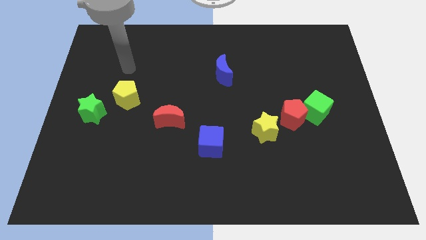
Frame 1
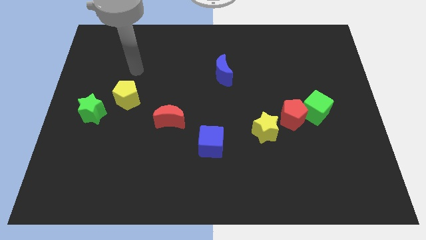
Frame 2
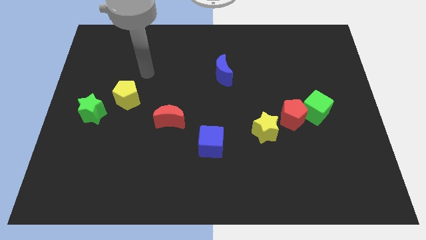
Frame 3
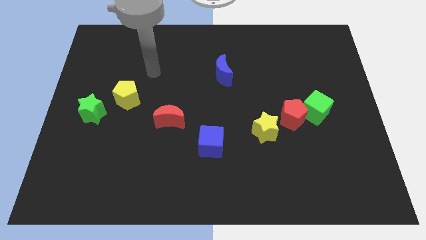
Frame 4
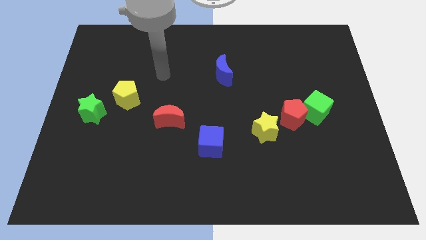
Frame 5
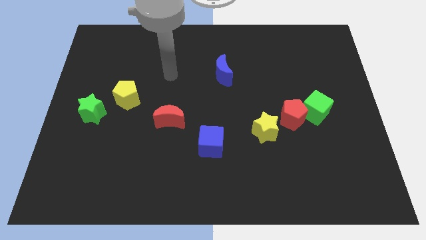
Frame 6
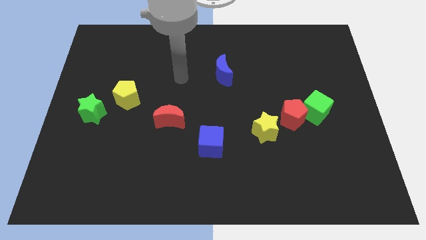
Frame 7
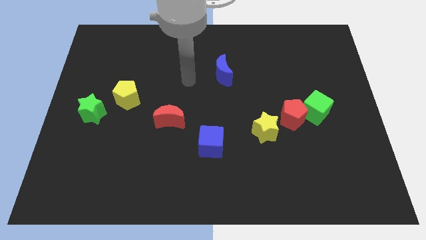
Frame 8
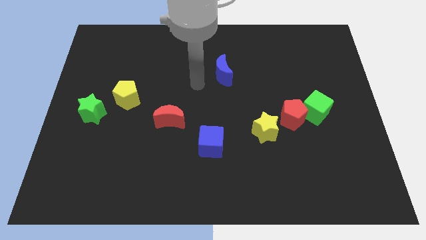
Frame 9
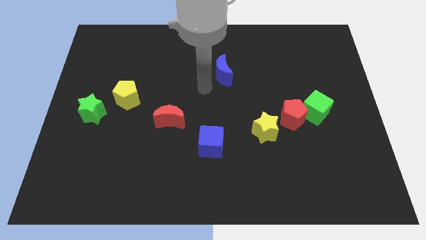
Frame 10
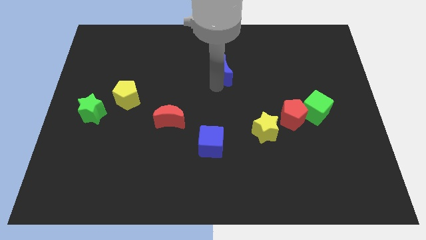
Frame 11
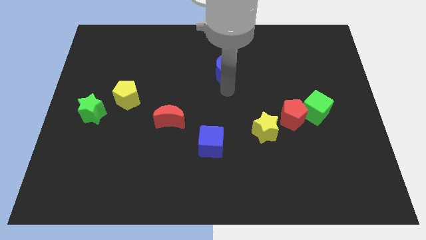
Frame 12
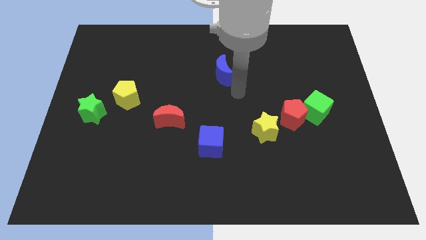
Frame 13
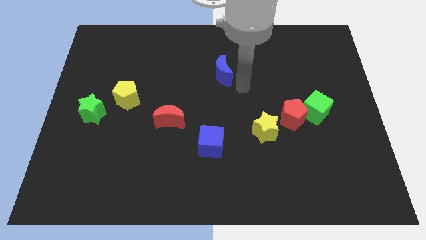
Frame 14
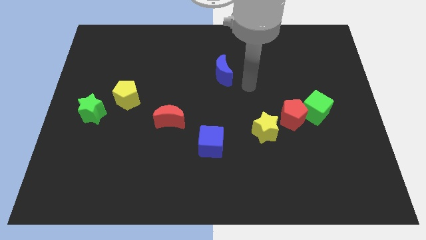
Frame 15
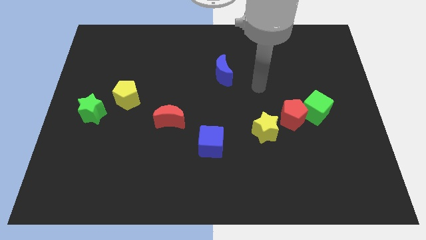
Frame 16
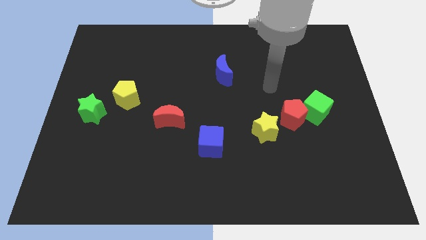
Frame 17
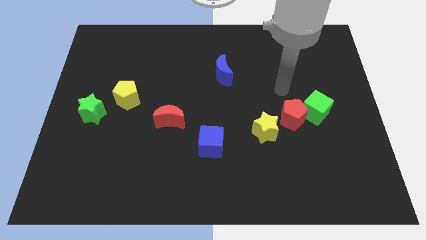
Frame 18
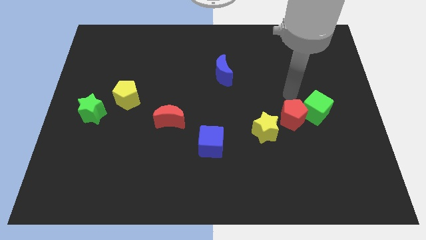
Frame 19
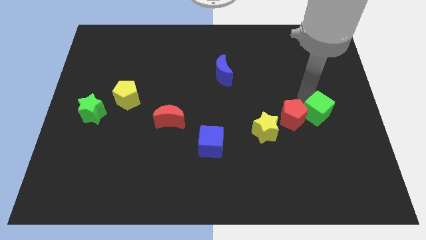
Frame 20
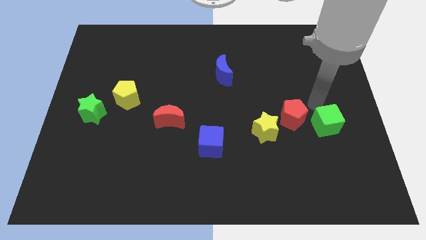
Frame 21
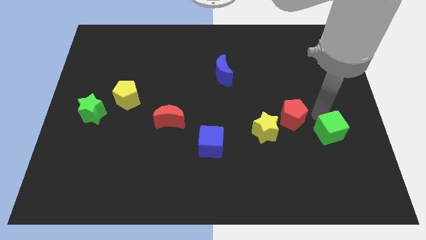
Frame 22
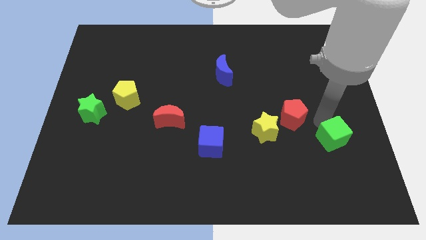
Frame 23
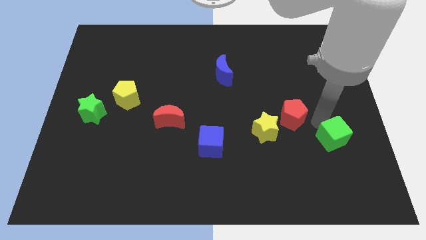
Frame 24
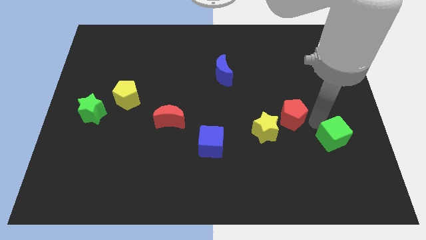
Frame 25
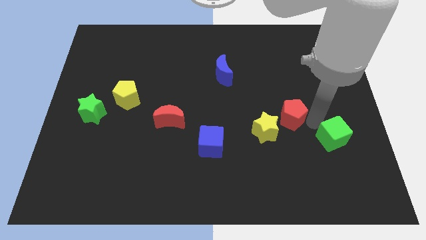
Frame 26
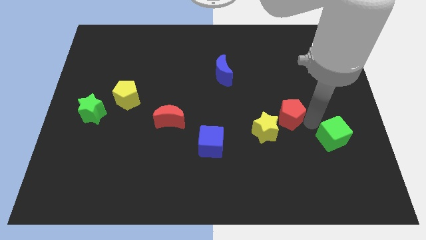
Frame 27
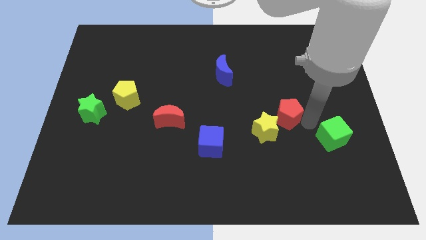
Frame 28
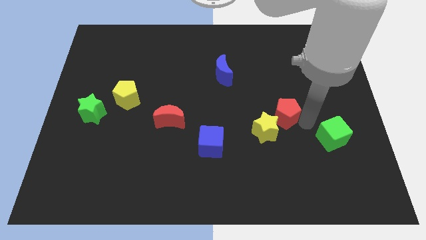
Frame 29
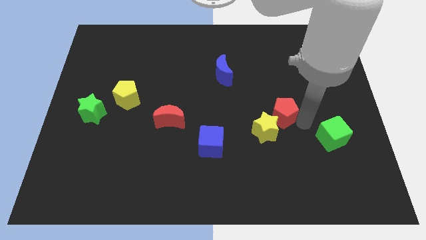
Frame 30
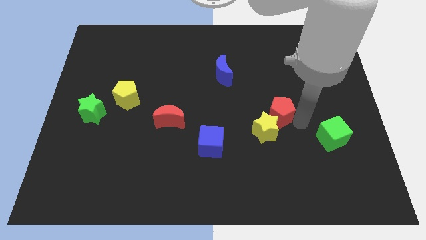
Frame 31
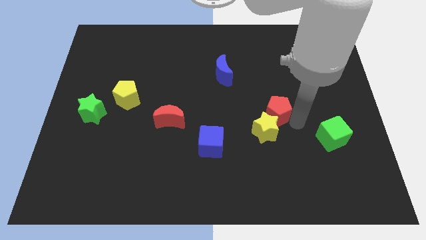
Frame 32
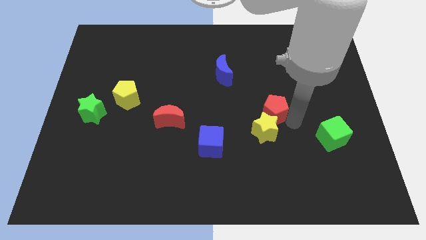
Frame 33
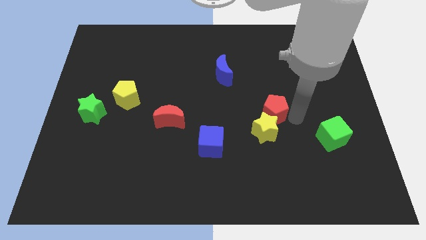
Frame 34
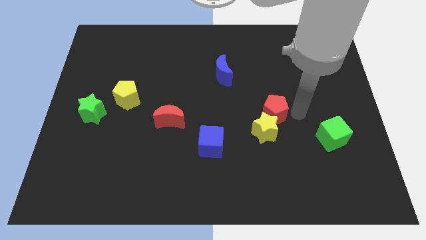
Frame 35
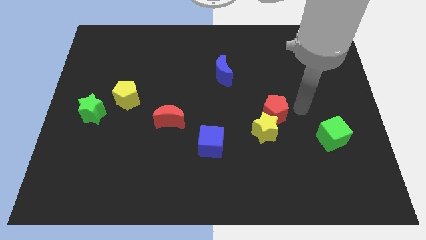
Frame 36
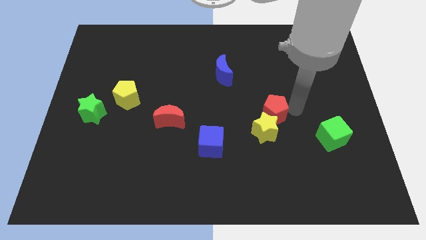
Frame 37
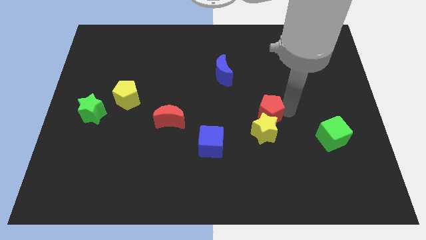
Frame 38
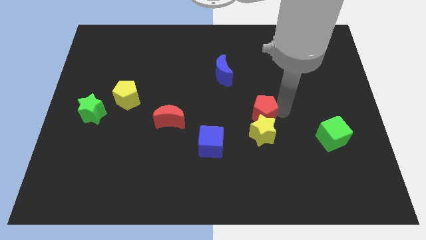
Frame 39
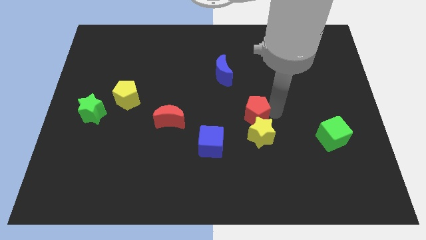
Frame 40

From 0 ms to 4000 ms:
slightly move the red pentagon to the left

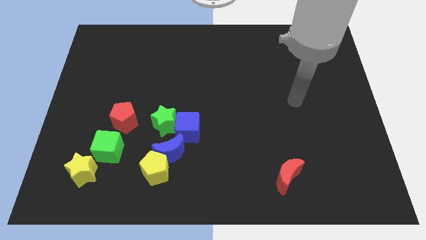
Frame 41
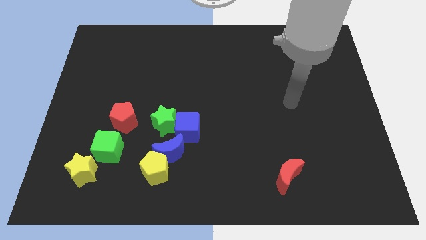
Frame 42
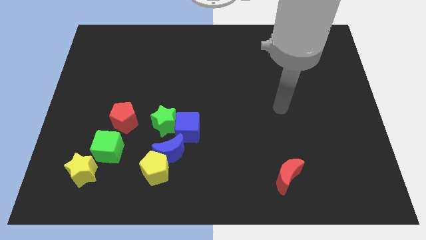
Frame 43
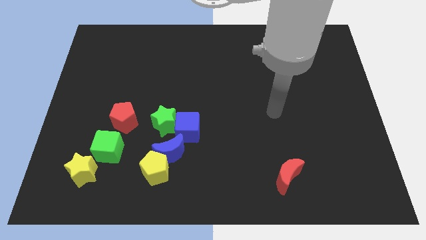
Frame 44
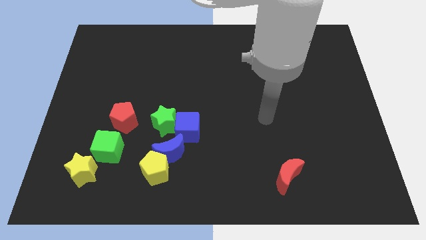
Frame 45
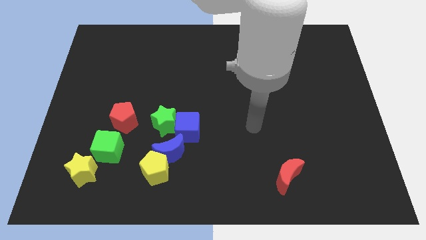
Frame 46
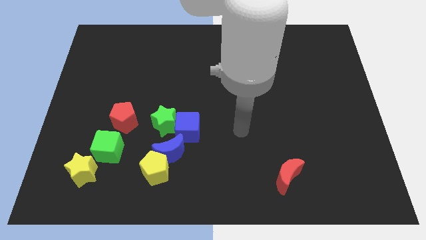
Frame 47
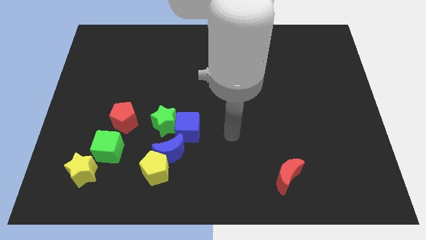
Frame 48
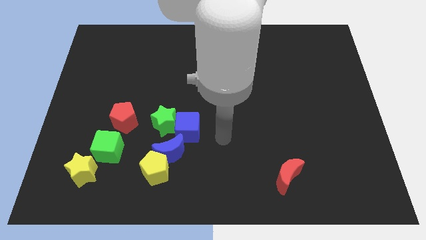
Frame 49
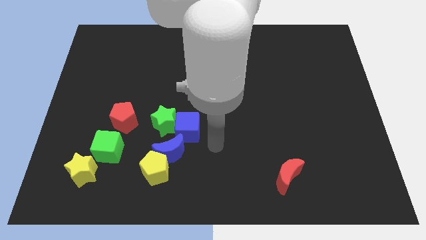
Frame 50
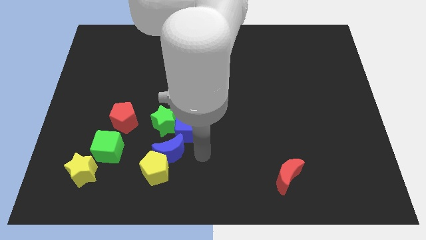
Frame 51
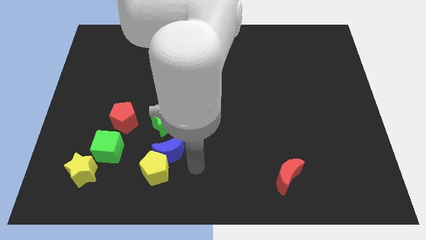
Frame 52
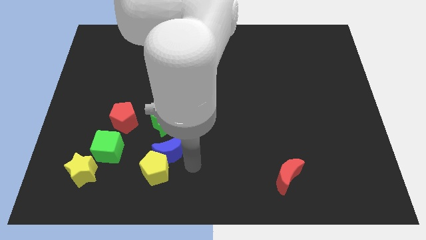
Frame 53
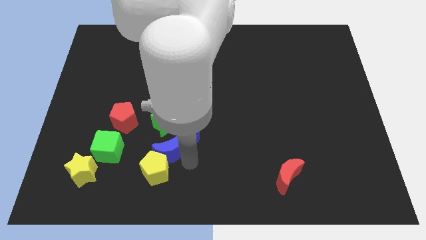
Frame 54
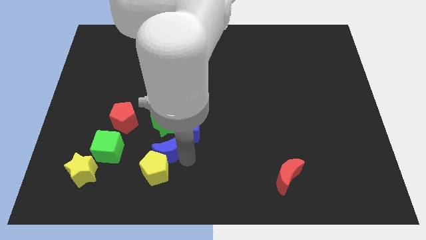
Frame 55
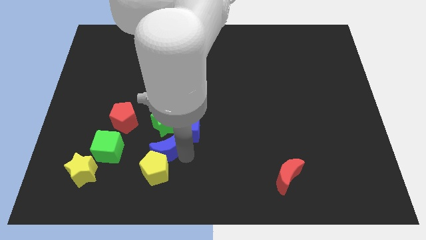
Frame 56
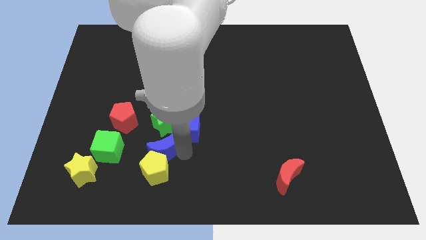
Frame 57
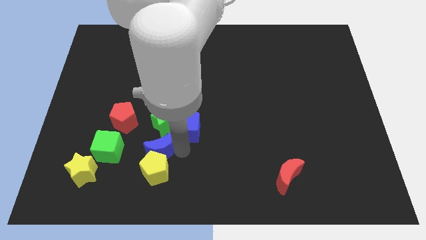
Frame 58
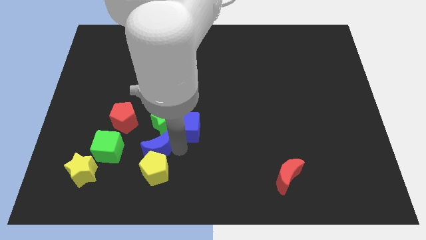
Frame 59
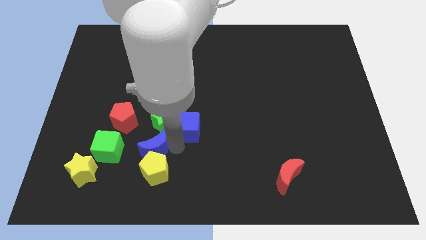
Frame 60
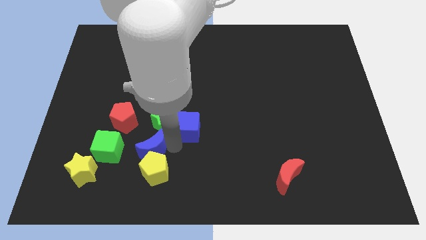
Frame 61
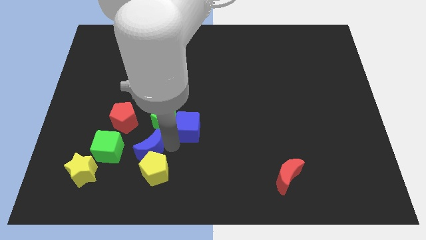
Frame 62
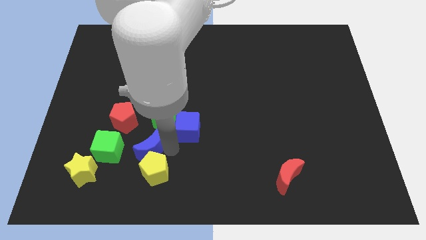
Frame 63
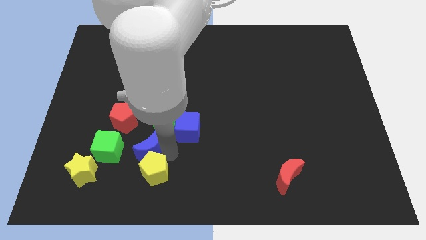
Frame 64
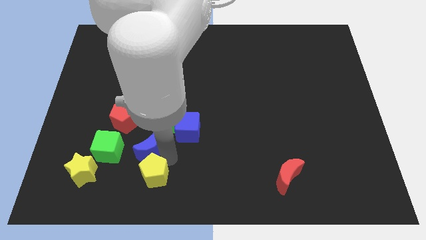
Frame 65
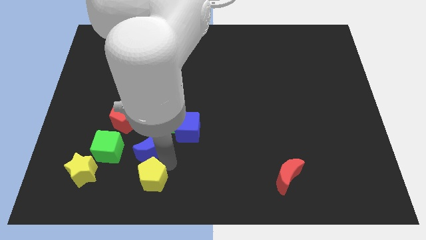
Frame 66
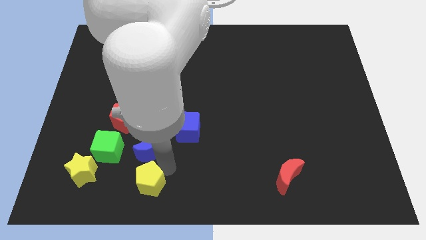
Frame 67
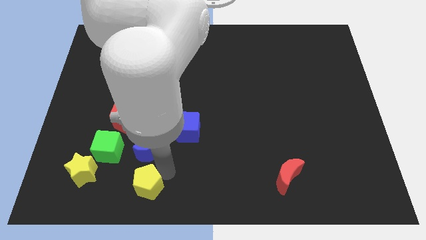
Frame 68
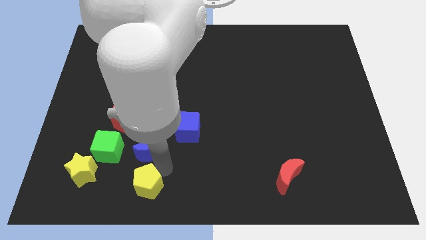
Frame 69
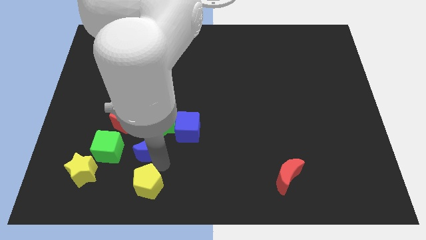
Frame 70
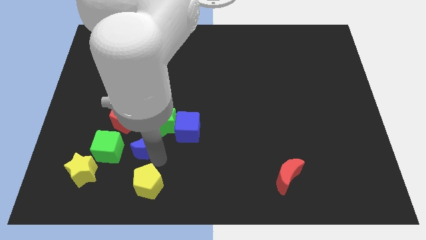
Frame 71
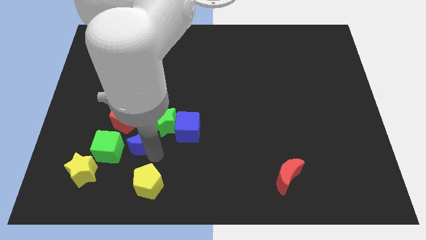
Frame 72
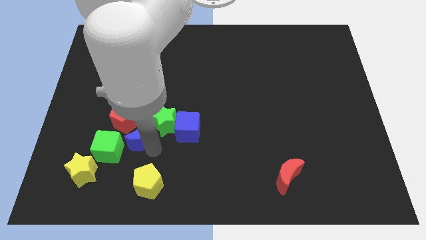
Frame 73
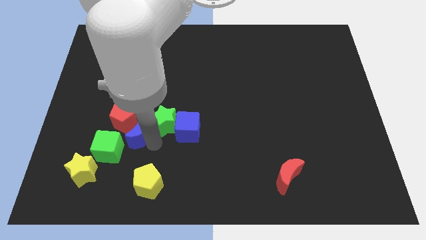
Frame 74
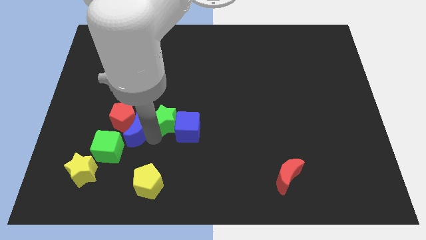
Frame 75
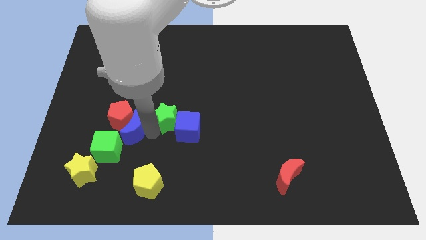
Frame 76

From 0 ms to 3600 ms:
slide the blue moon to the left slightly
